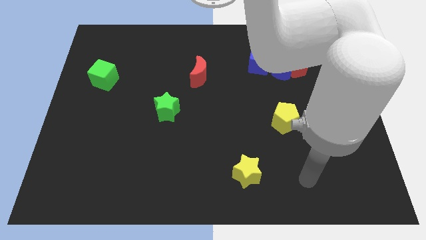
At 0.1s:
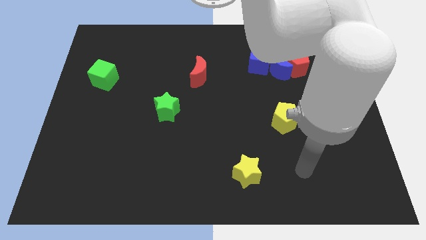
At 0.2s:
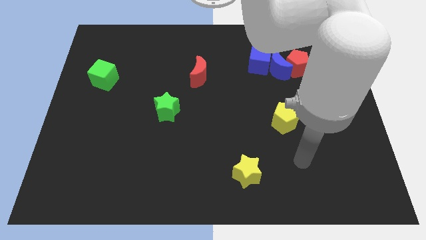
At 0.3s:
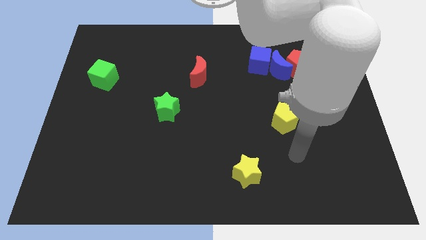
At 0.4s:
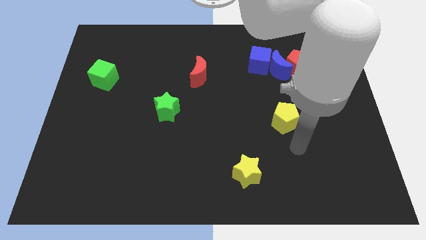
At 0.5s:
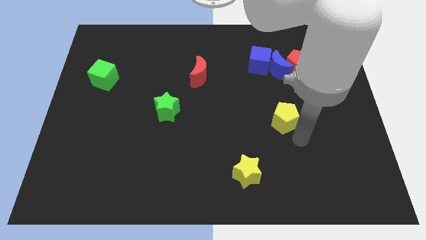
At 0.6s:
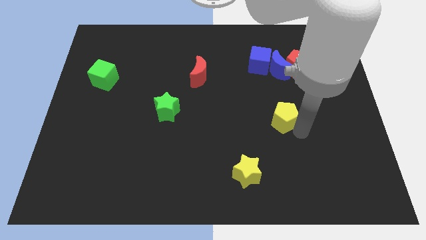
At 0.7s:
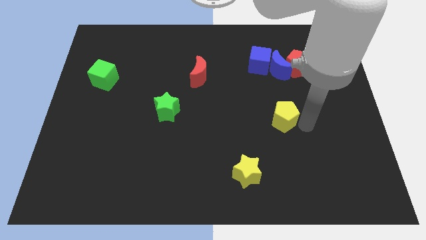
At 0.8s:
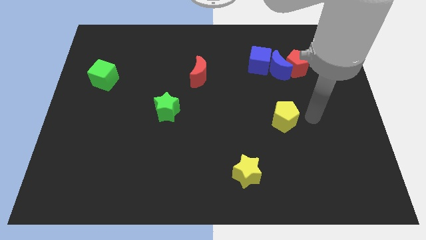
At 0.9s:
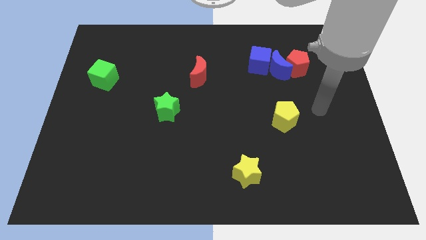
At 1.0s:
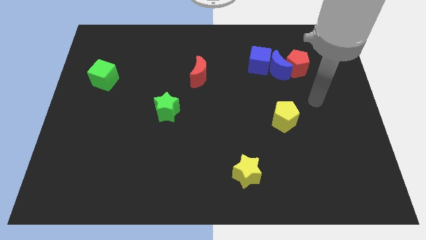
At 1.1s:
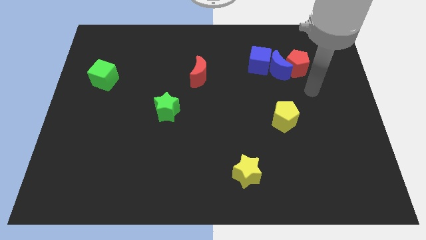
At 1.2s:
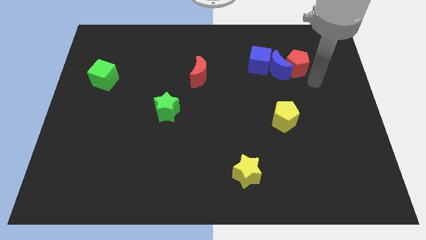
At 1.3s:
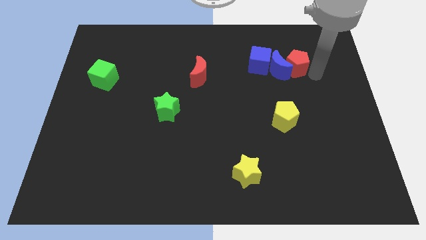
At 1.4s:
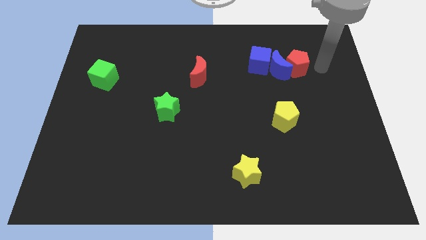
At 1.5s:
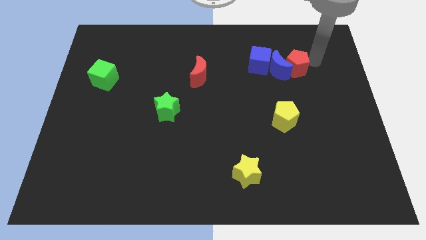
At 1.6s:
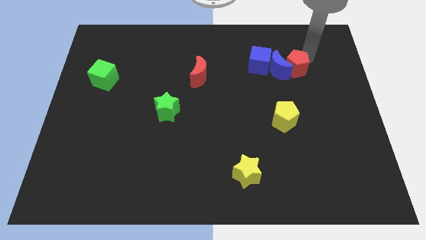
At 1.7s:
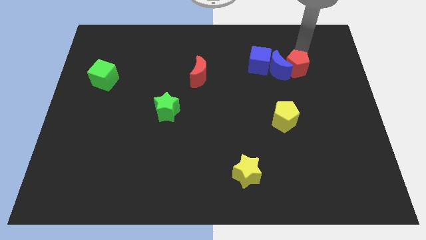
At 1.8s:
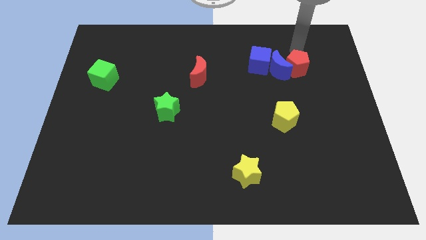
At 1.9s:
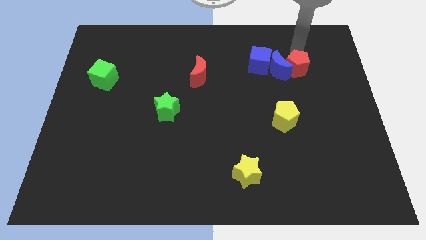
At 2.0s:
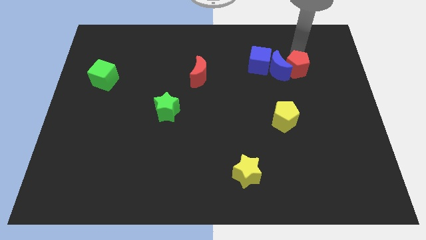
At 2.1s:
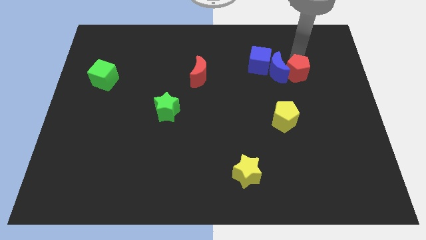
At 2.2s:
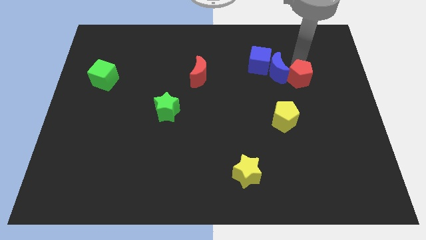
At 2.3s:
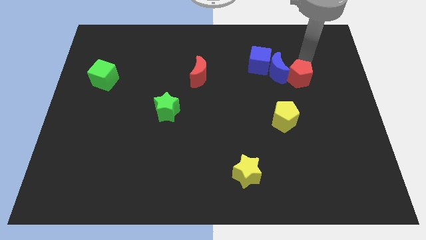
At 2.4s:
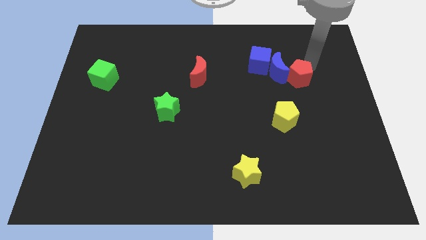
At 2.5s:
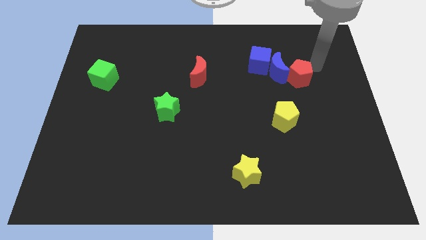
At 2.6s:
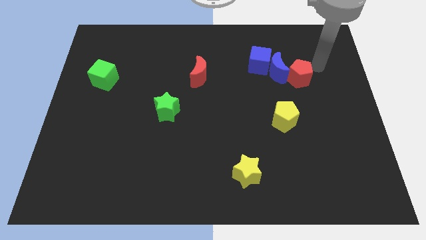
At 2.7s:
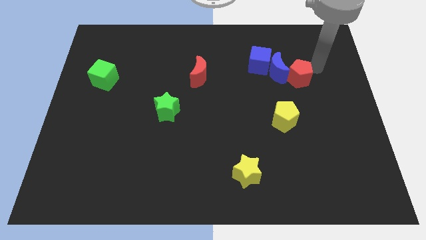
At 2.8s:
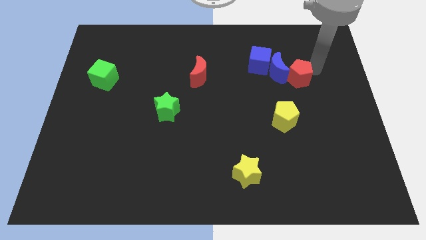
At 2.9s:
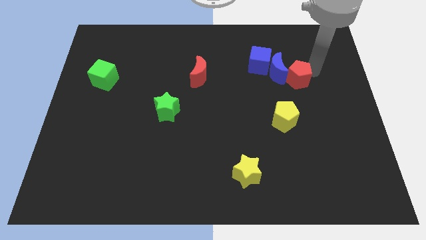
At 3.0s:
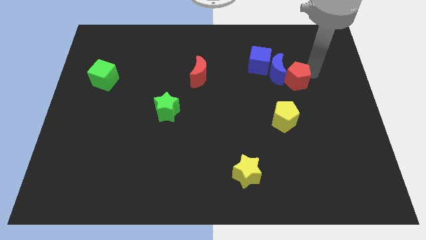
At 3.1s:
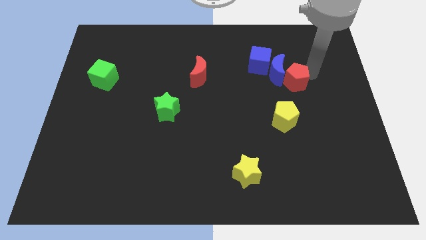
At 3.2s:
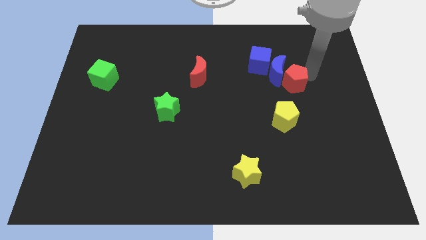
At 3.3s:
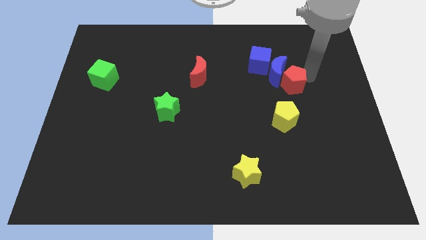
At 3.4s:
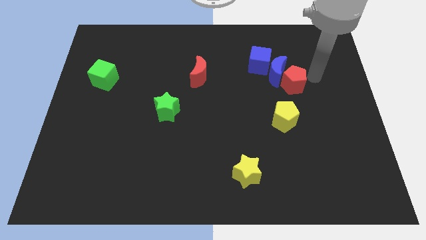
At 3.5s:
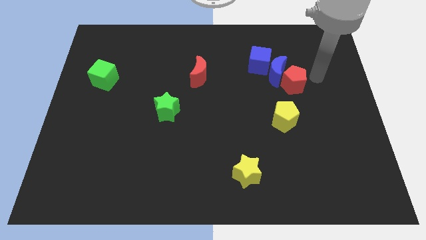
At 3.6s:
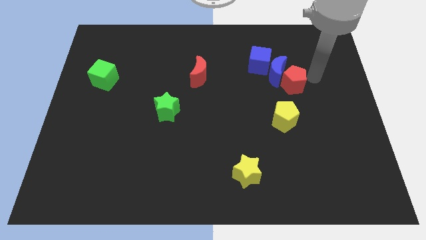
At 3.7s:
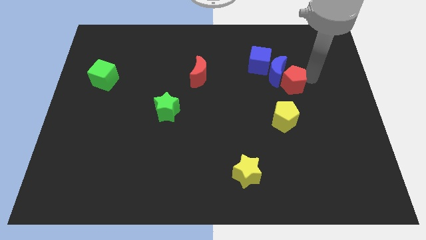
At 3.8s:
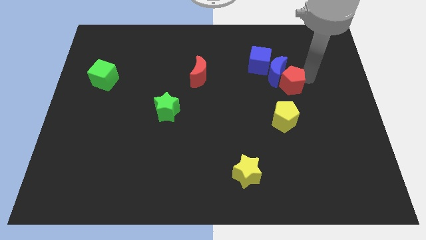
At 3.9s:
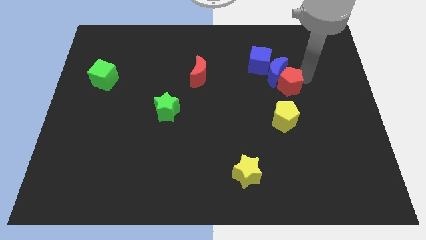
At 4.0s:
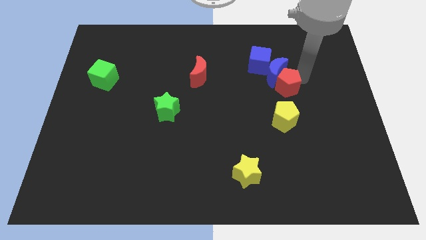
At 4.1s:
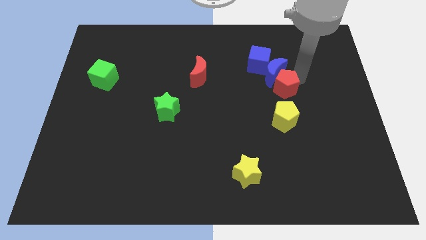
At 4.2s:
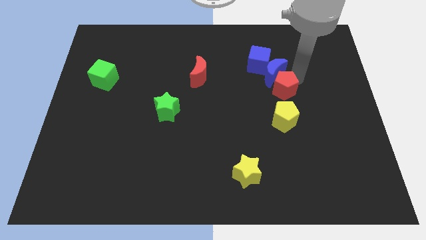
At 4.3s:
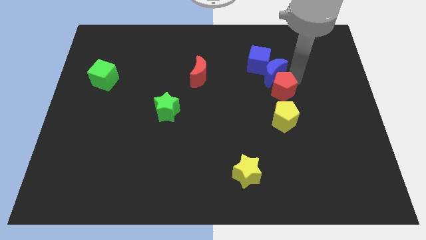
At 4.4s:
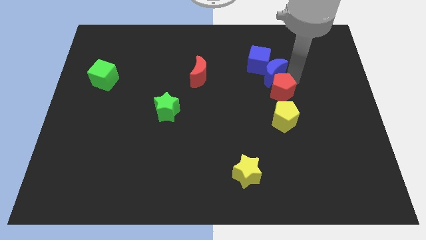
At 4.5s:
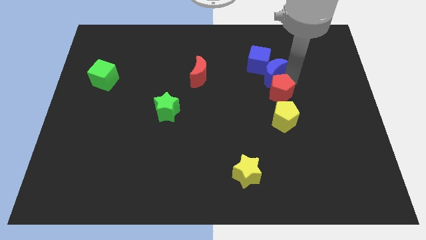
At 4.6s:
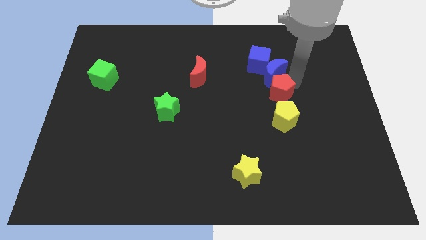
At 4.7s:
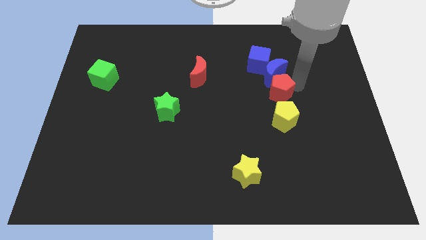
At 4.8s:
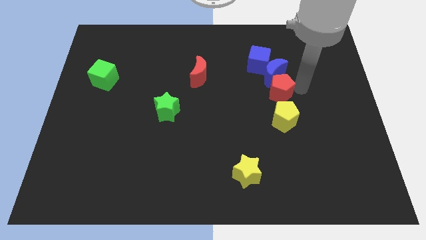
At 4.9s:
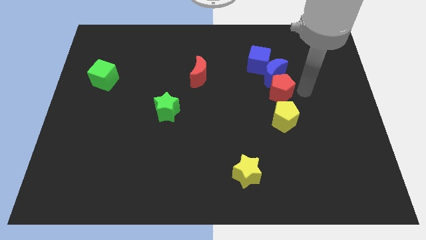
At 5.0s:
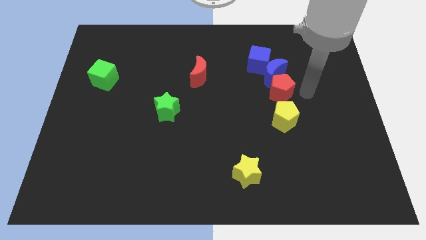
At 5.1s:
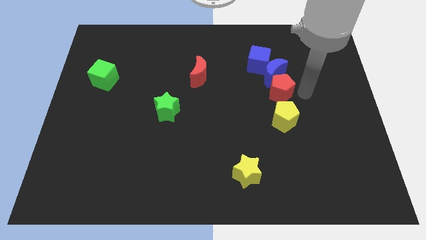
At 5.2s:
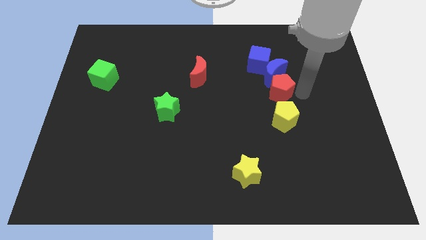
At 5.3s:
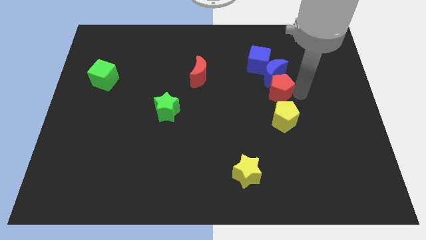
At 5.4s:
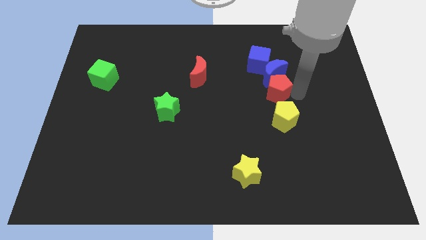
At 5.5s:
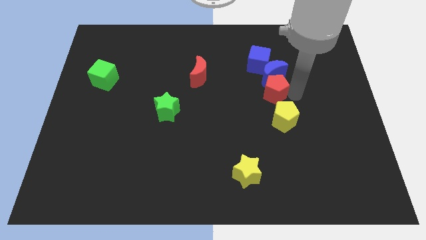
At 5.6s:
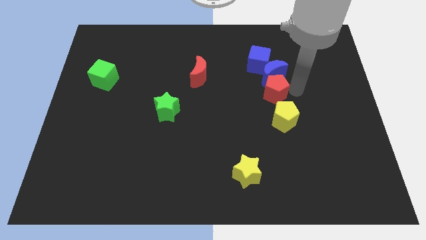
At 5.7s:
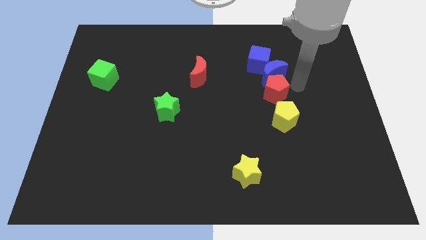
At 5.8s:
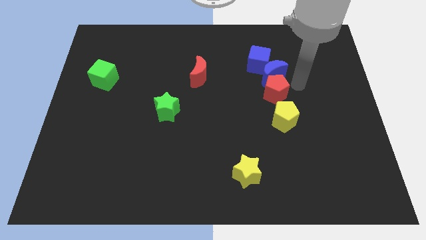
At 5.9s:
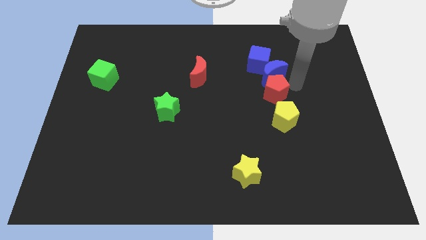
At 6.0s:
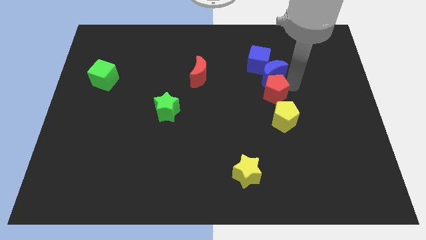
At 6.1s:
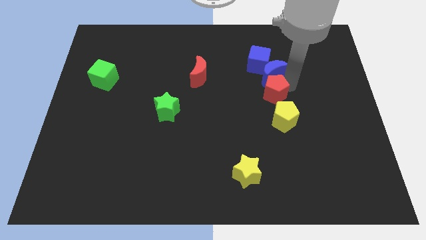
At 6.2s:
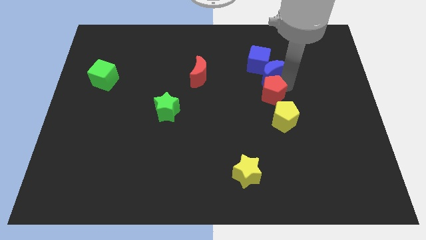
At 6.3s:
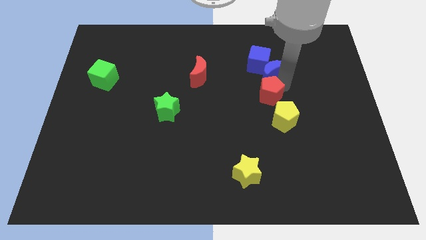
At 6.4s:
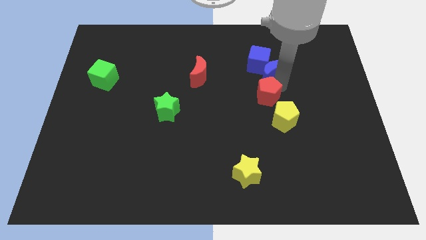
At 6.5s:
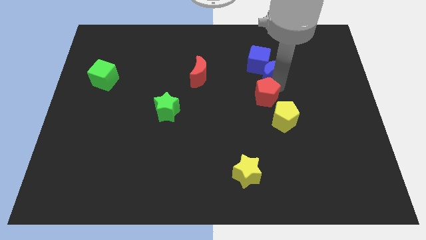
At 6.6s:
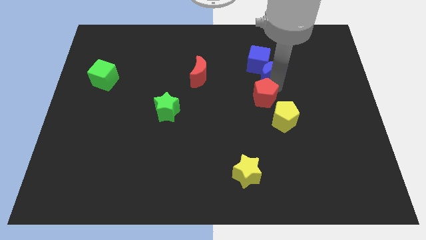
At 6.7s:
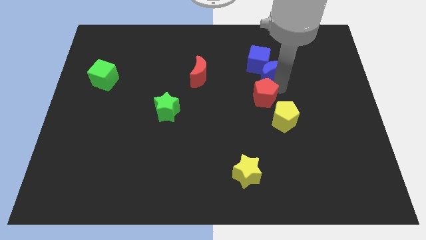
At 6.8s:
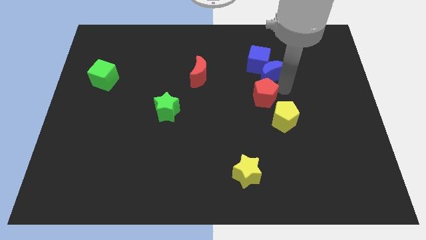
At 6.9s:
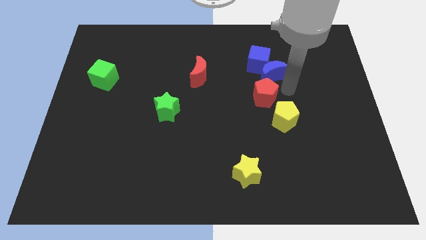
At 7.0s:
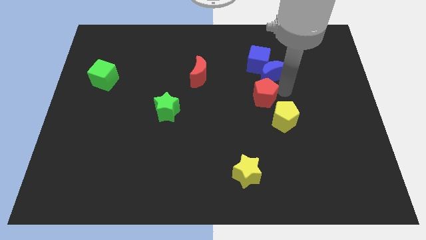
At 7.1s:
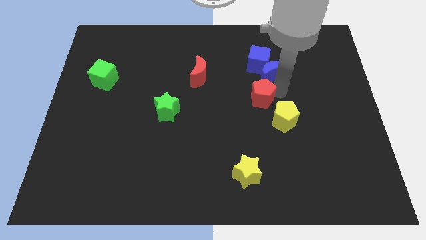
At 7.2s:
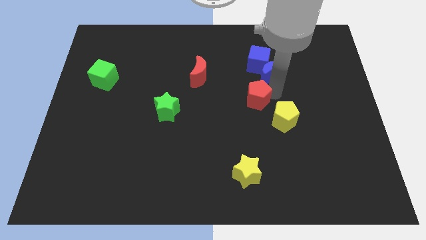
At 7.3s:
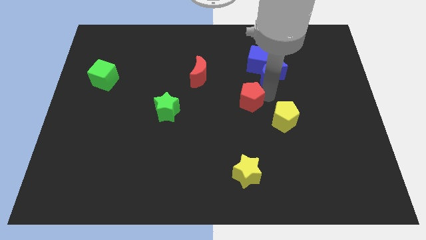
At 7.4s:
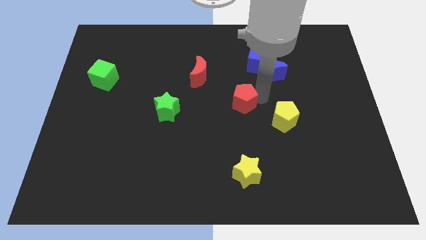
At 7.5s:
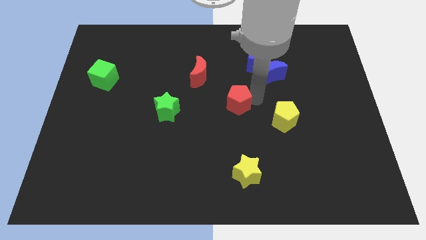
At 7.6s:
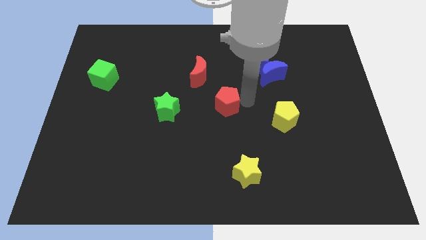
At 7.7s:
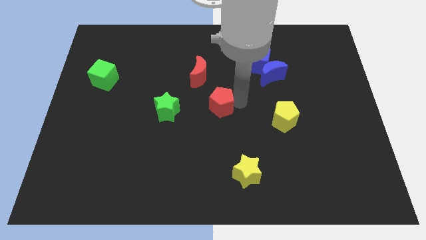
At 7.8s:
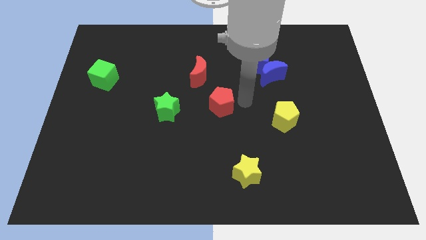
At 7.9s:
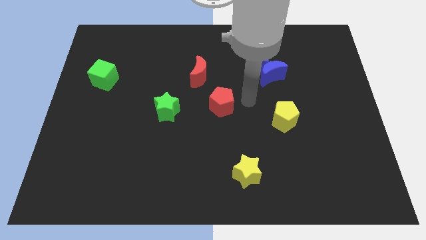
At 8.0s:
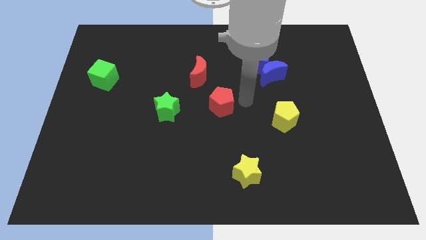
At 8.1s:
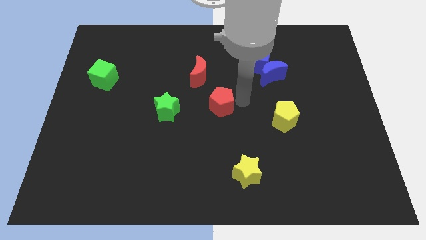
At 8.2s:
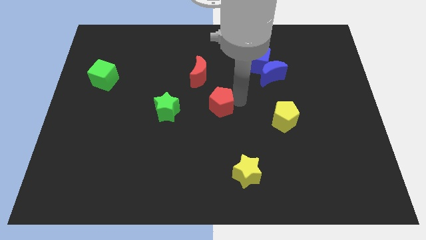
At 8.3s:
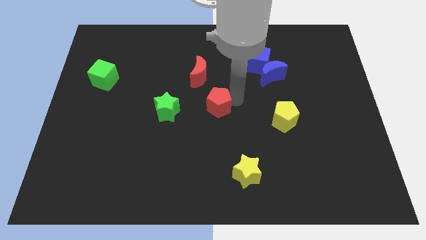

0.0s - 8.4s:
move the red pentagon below the red moon
